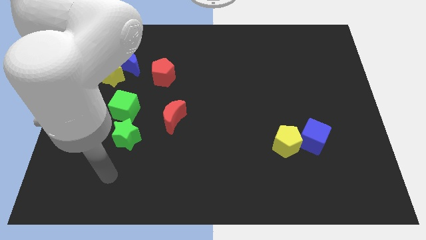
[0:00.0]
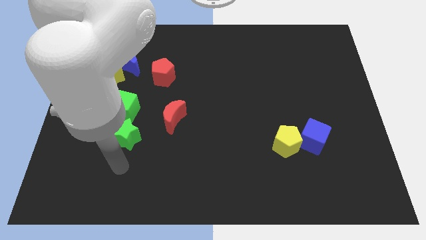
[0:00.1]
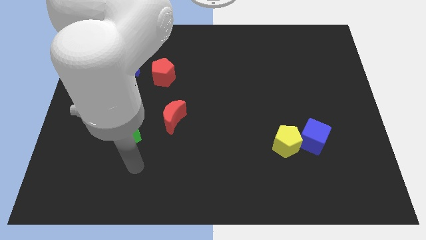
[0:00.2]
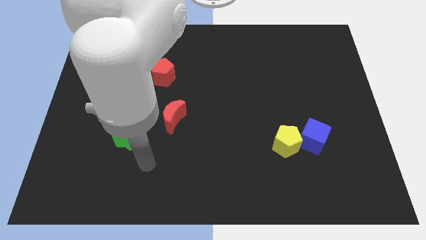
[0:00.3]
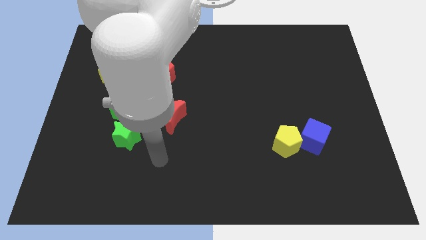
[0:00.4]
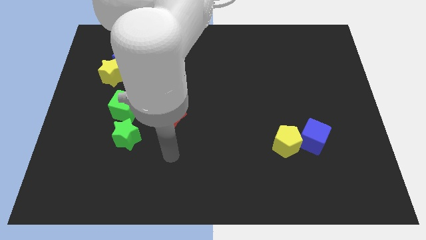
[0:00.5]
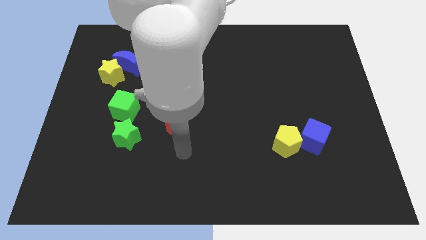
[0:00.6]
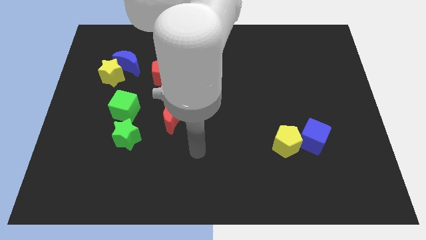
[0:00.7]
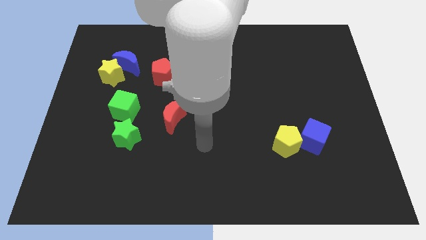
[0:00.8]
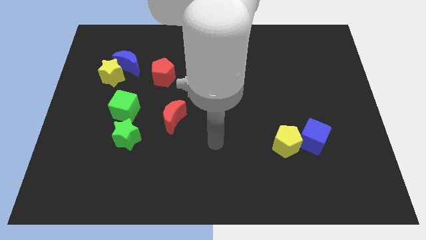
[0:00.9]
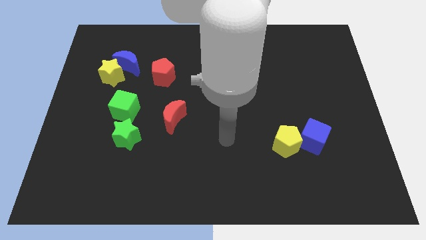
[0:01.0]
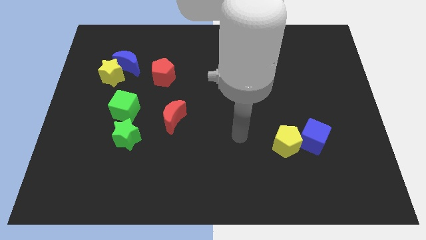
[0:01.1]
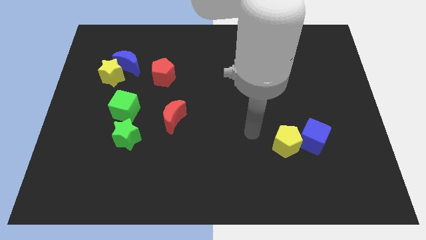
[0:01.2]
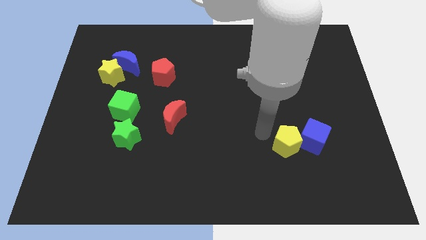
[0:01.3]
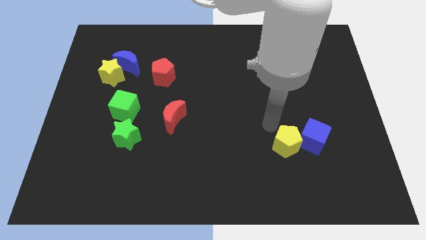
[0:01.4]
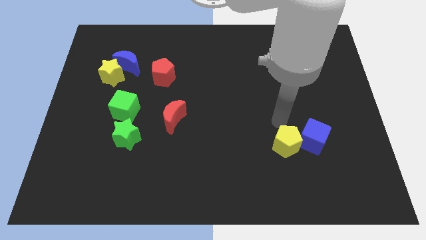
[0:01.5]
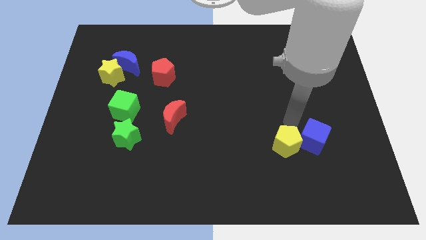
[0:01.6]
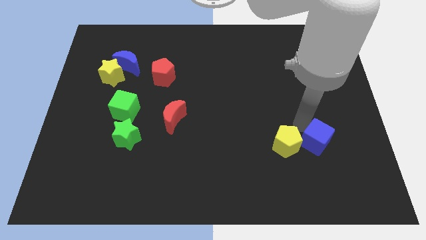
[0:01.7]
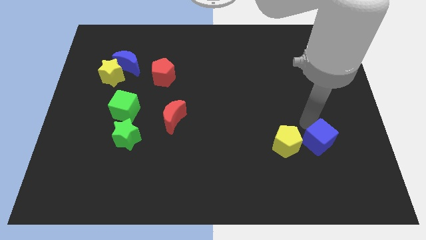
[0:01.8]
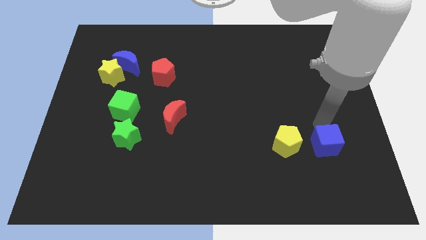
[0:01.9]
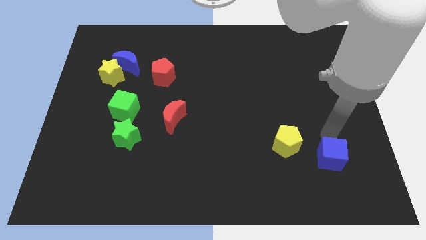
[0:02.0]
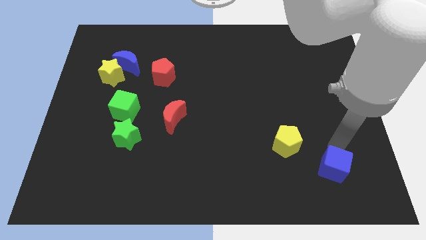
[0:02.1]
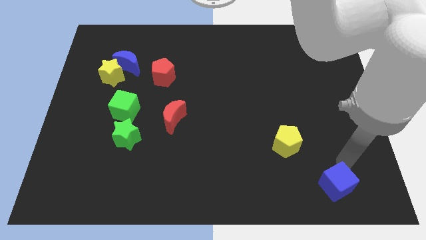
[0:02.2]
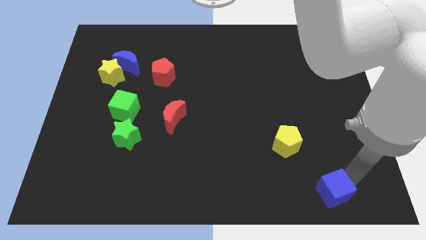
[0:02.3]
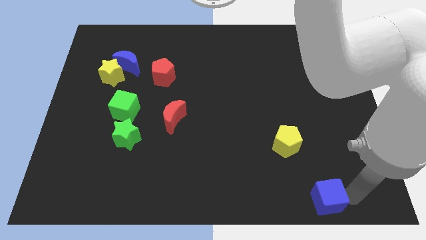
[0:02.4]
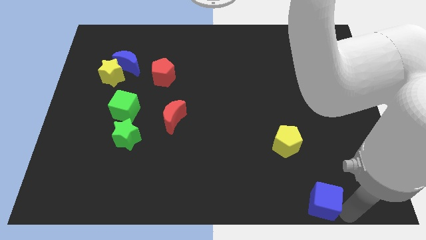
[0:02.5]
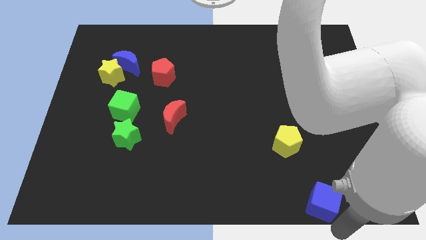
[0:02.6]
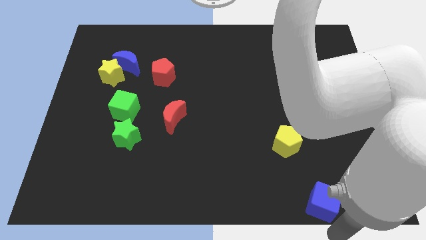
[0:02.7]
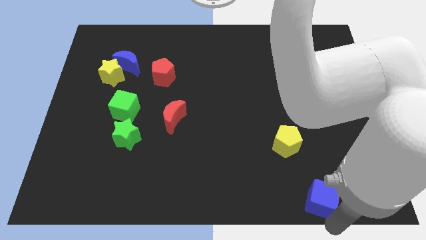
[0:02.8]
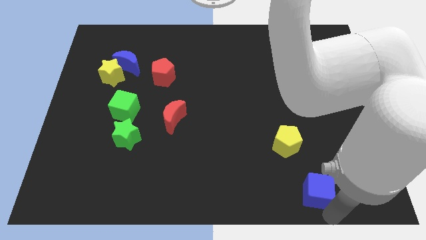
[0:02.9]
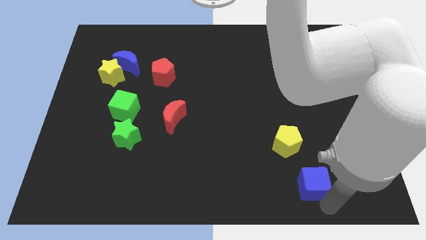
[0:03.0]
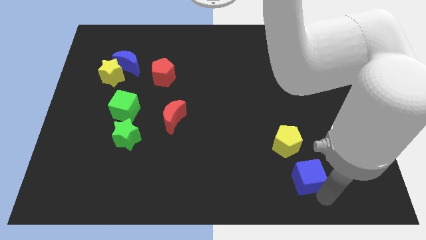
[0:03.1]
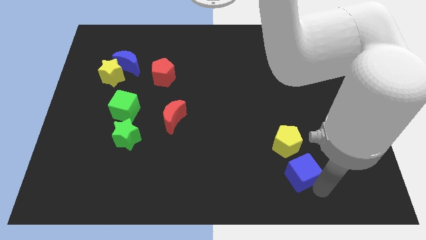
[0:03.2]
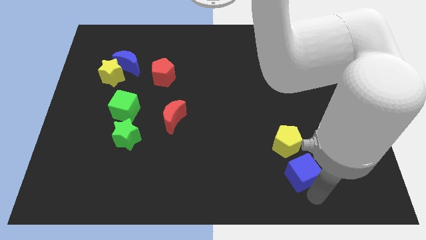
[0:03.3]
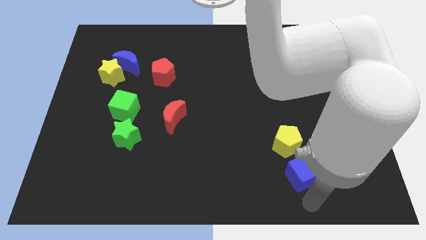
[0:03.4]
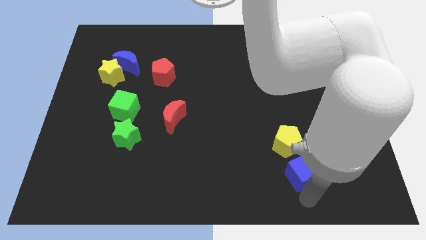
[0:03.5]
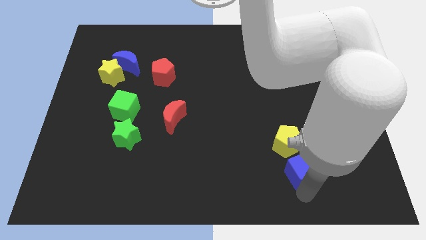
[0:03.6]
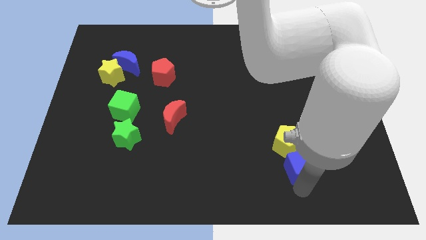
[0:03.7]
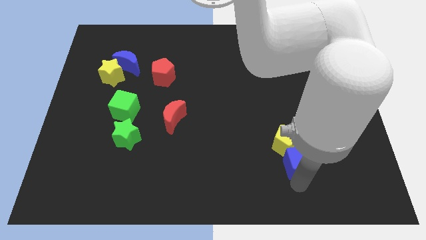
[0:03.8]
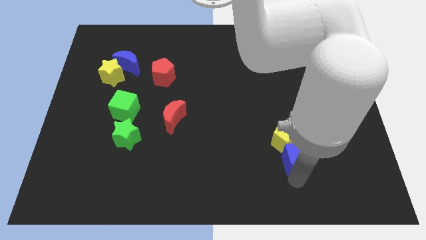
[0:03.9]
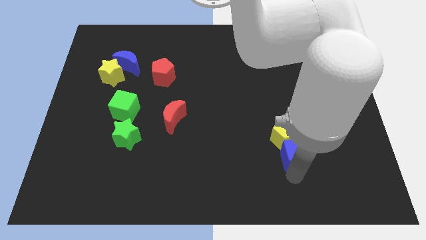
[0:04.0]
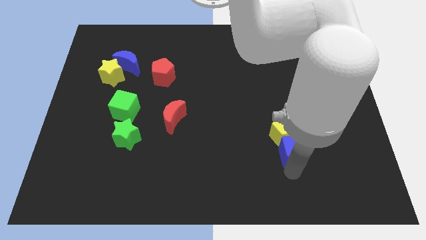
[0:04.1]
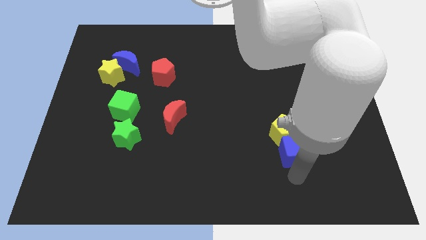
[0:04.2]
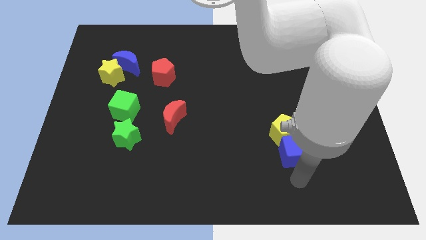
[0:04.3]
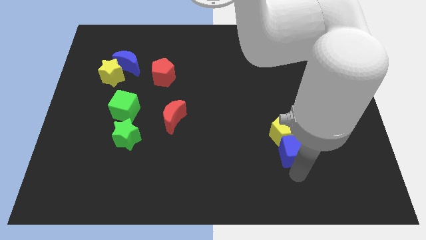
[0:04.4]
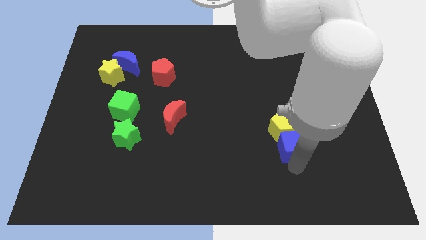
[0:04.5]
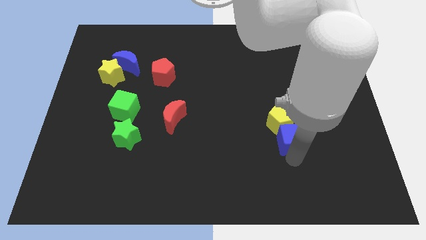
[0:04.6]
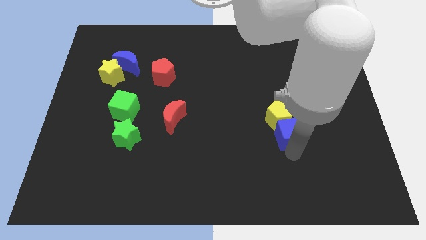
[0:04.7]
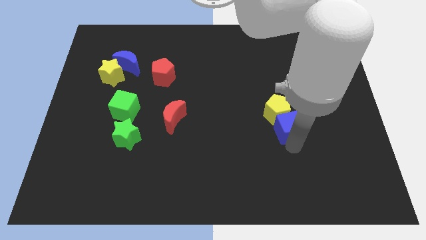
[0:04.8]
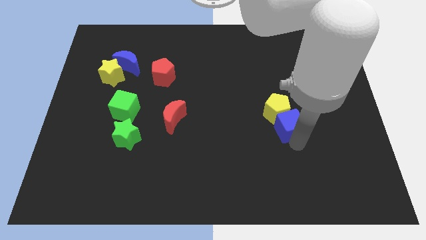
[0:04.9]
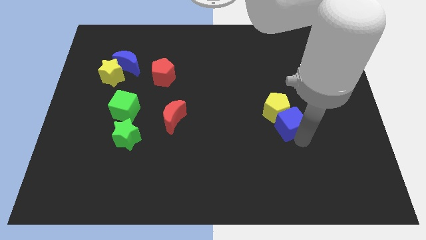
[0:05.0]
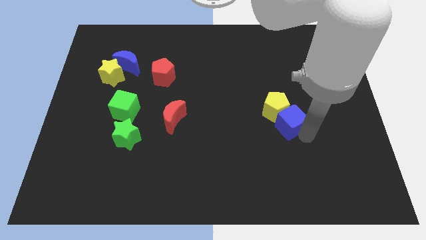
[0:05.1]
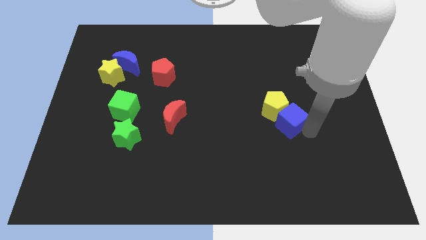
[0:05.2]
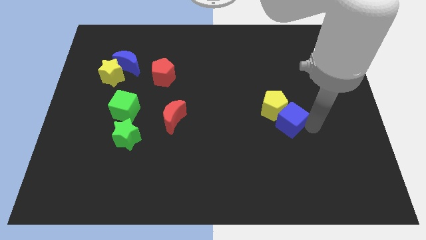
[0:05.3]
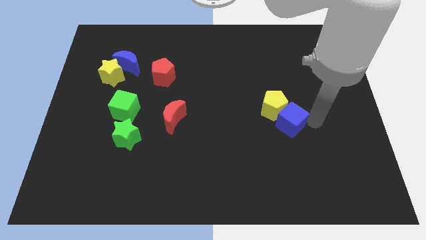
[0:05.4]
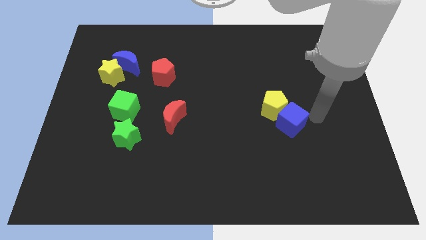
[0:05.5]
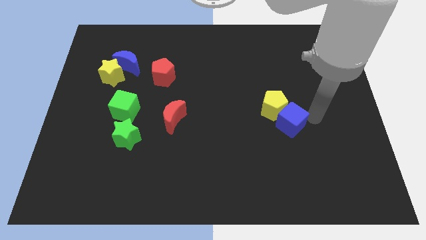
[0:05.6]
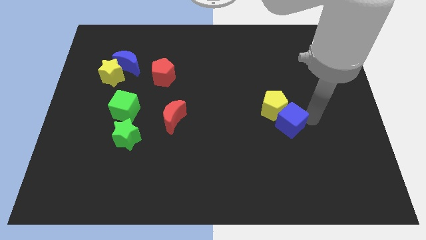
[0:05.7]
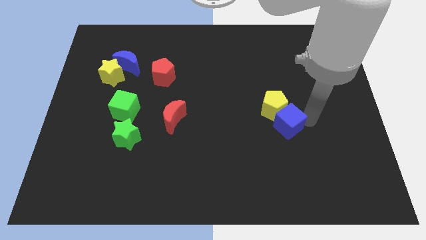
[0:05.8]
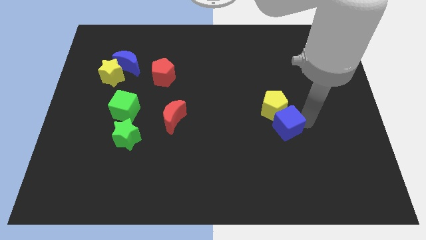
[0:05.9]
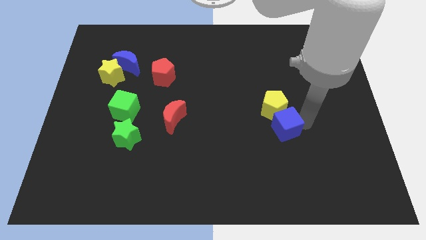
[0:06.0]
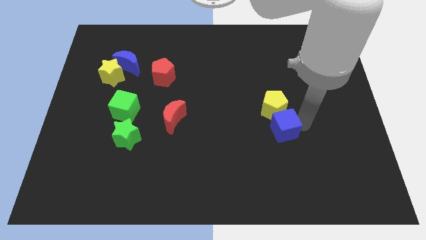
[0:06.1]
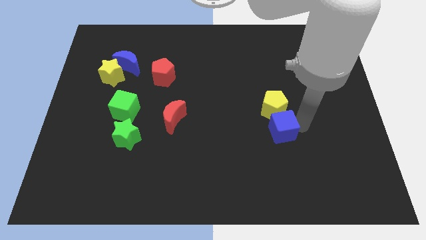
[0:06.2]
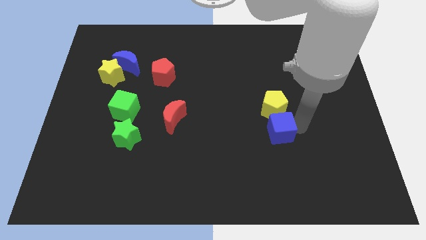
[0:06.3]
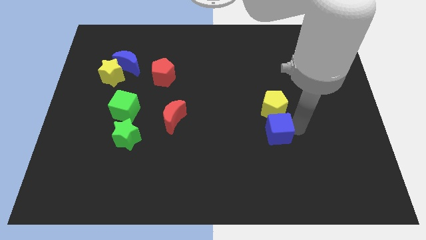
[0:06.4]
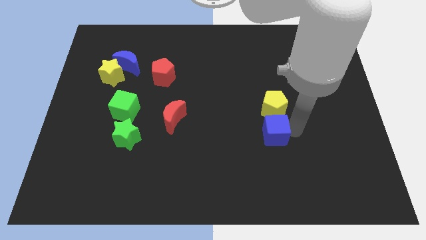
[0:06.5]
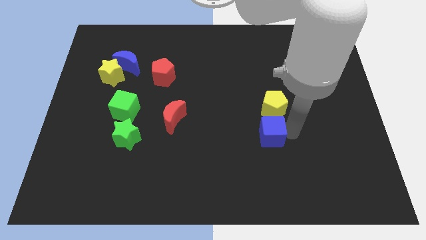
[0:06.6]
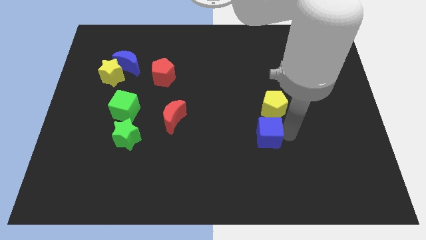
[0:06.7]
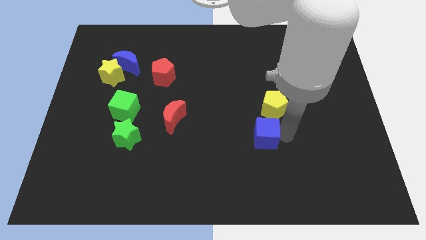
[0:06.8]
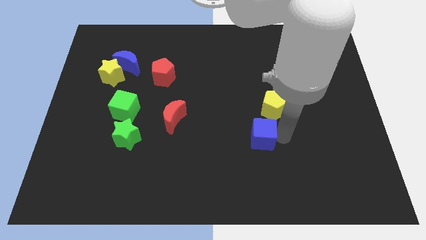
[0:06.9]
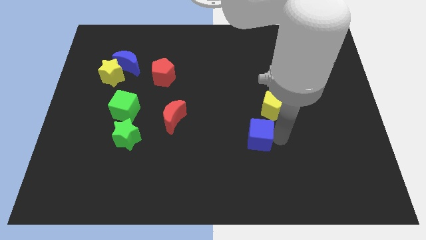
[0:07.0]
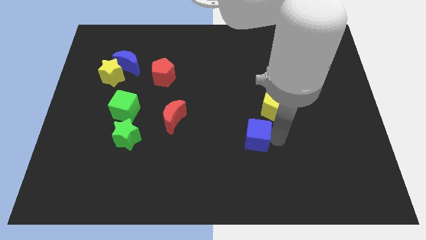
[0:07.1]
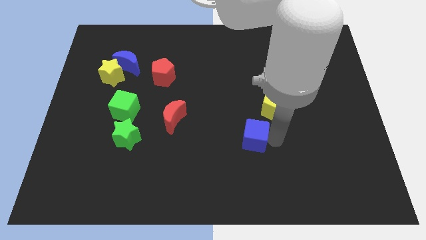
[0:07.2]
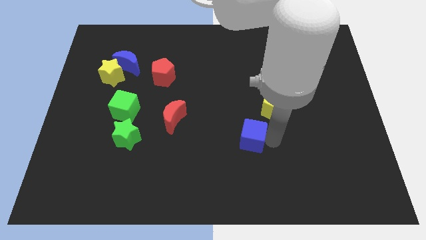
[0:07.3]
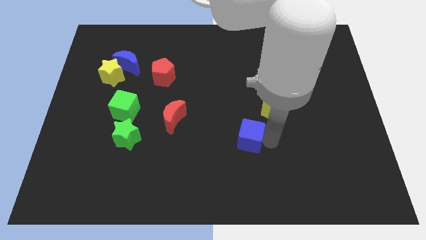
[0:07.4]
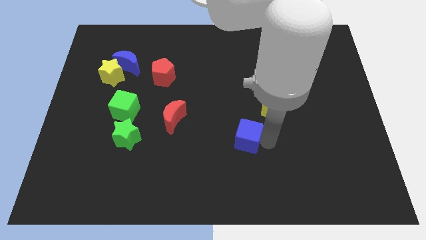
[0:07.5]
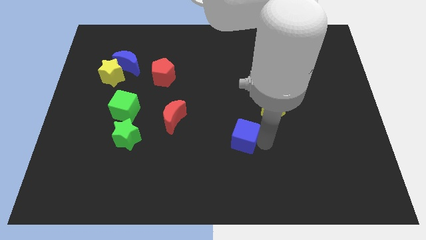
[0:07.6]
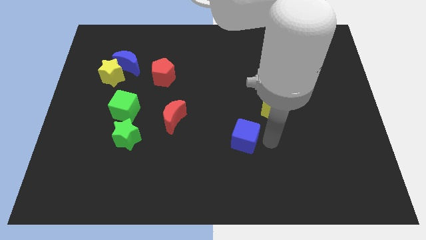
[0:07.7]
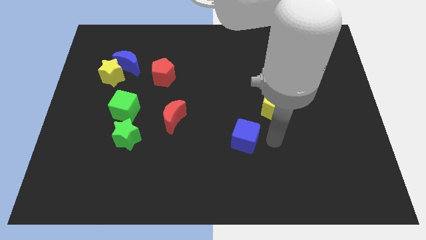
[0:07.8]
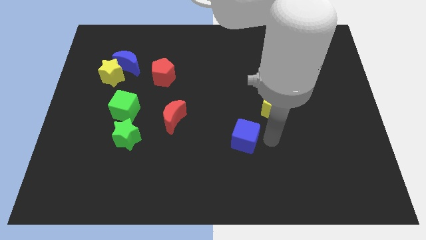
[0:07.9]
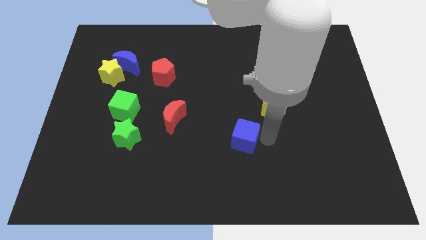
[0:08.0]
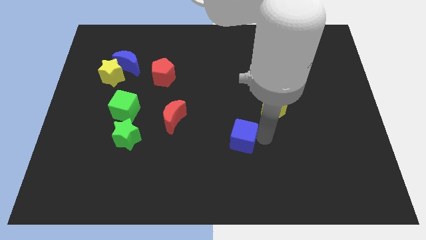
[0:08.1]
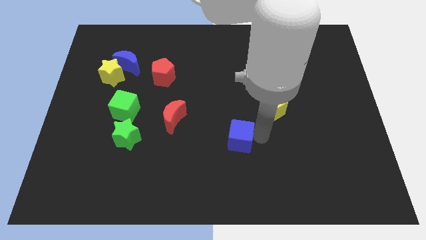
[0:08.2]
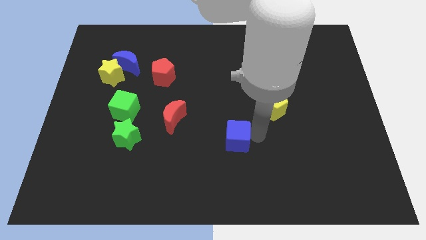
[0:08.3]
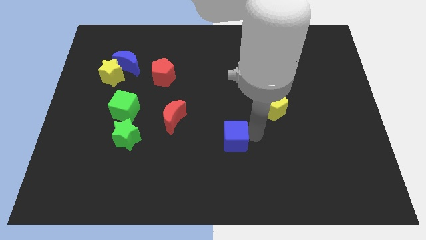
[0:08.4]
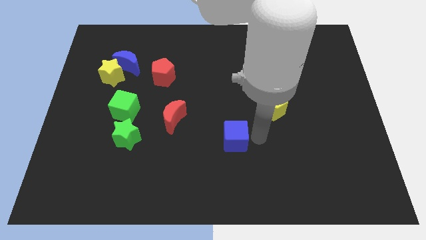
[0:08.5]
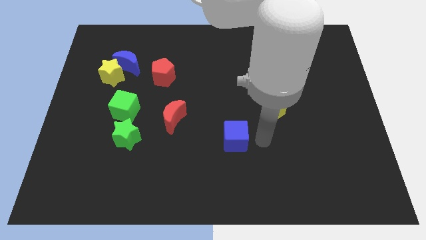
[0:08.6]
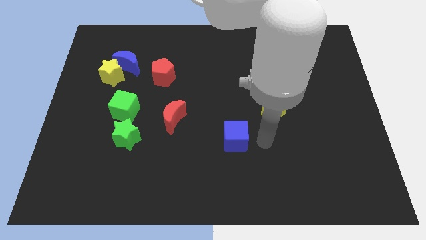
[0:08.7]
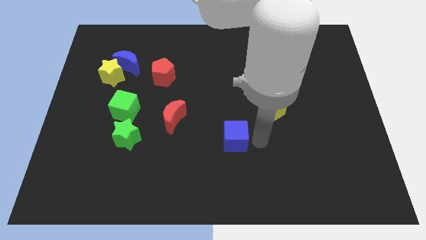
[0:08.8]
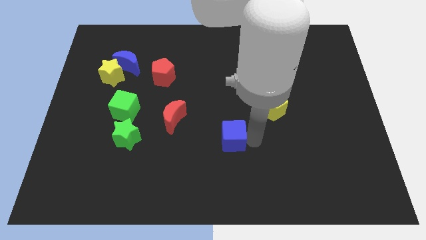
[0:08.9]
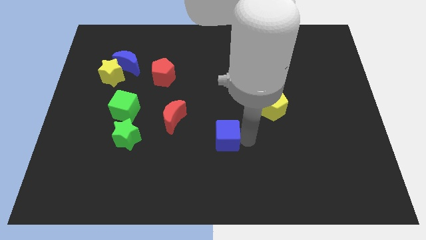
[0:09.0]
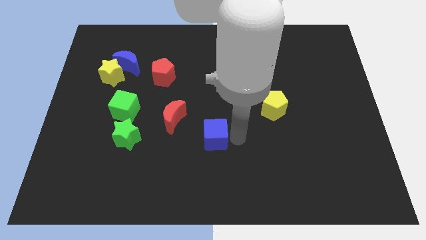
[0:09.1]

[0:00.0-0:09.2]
slide the blue cube to the left
